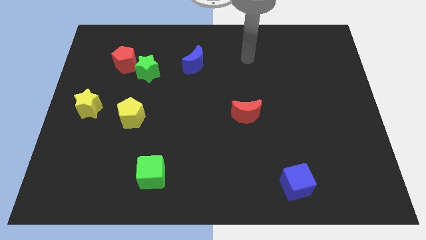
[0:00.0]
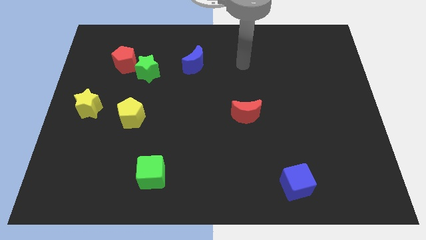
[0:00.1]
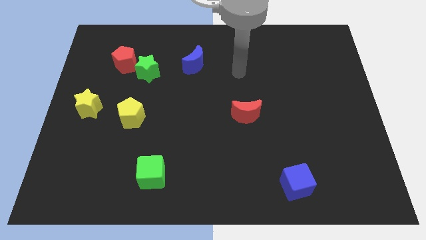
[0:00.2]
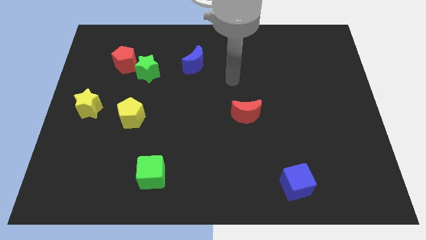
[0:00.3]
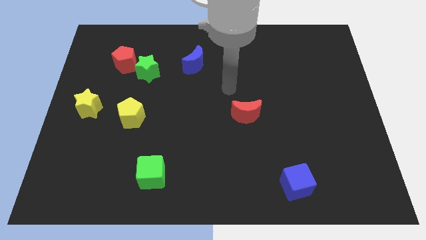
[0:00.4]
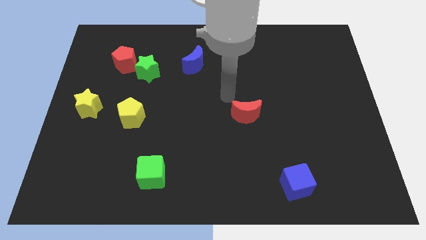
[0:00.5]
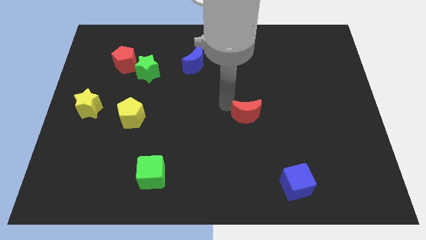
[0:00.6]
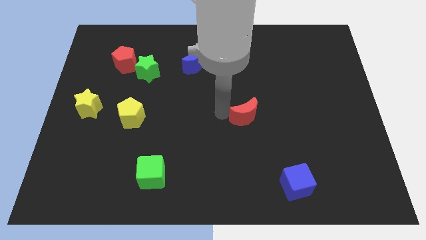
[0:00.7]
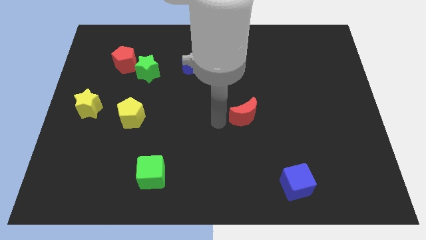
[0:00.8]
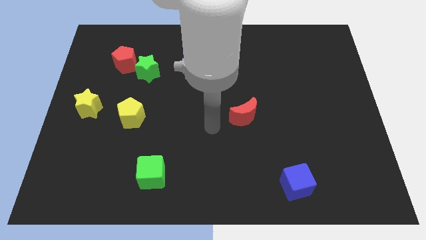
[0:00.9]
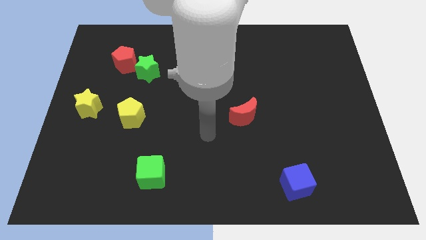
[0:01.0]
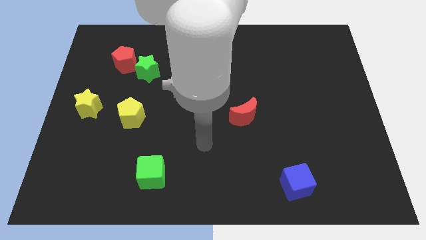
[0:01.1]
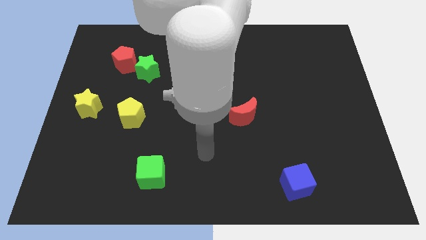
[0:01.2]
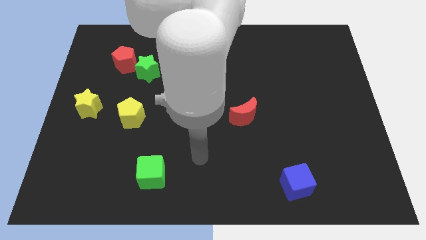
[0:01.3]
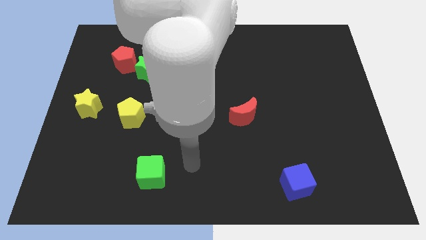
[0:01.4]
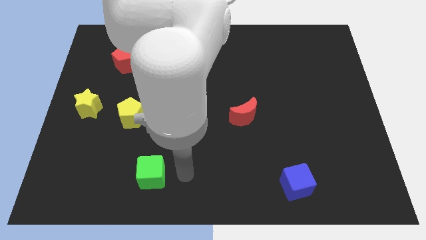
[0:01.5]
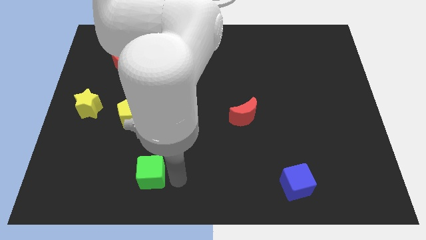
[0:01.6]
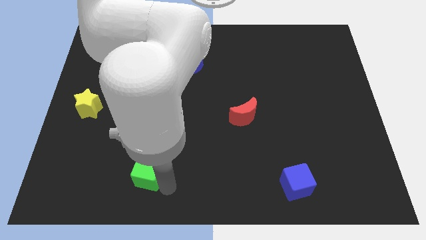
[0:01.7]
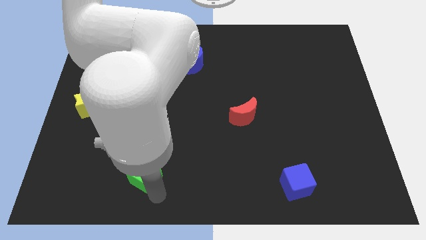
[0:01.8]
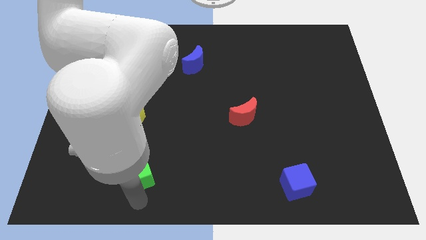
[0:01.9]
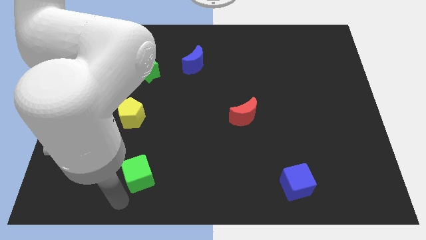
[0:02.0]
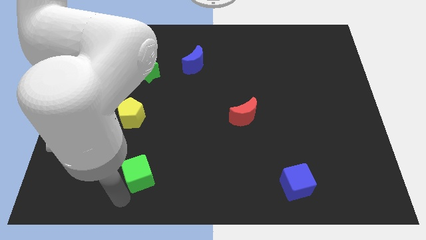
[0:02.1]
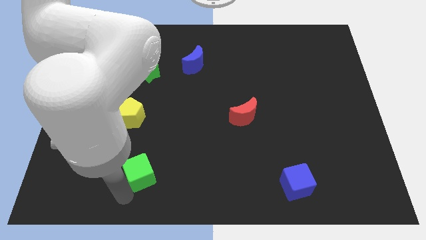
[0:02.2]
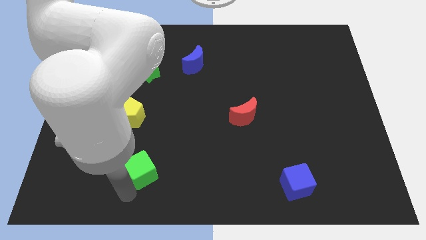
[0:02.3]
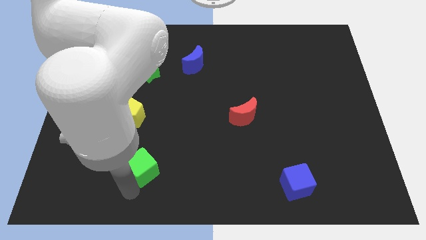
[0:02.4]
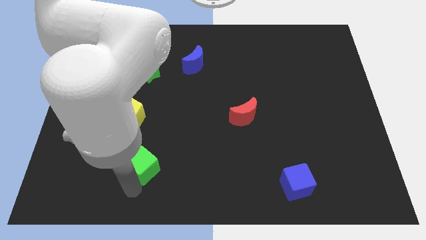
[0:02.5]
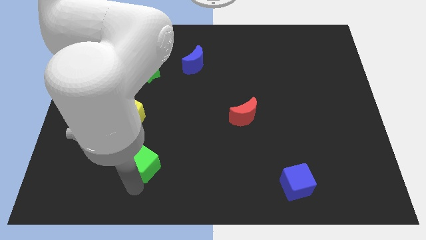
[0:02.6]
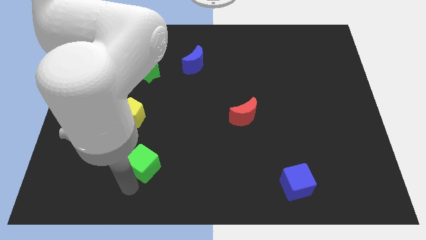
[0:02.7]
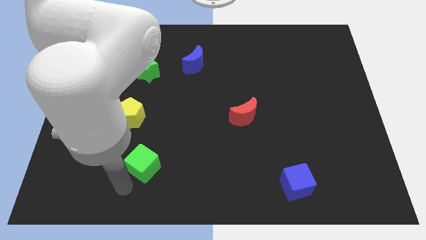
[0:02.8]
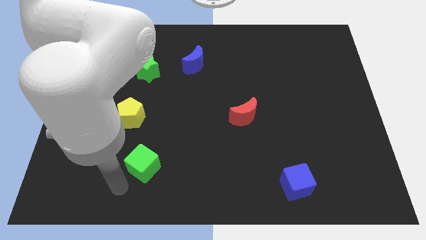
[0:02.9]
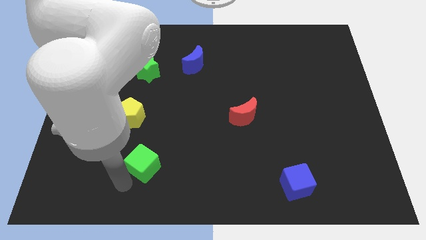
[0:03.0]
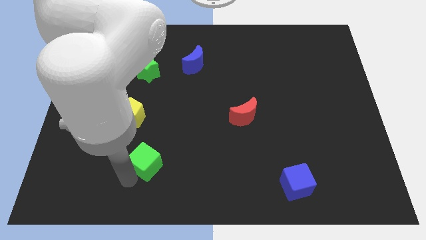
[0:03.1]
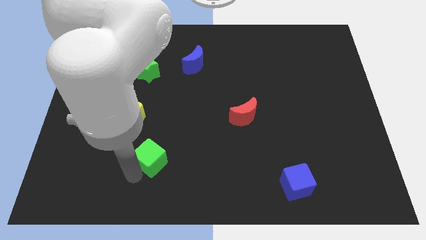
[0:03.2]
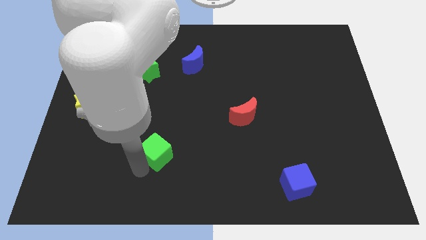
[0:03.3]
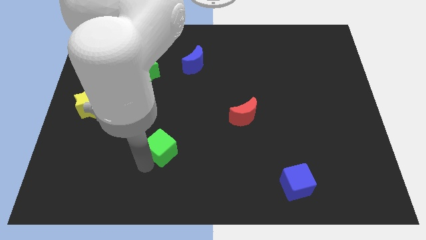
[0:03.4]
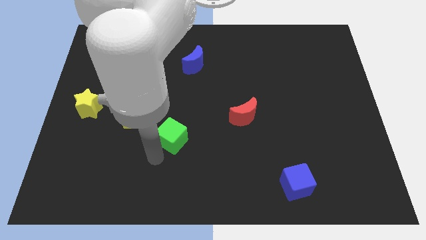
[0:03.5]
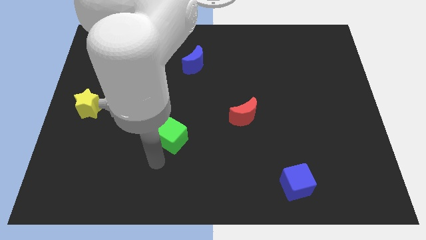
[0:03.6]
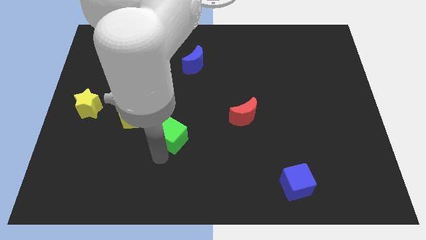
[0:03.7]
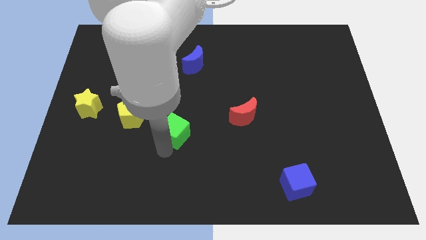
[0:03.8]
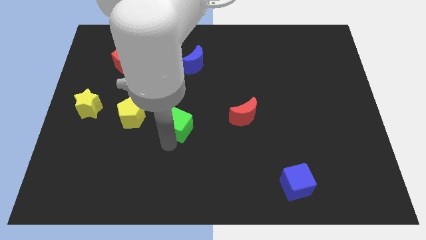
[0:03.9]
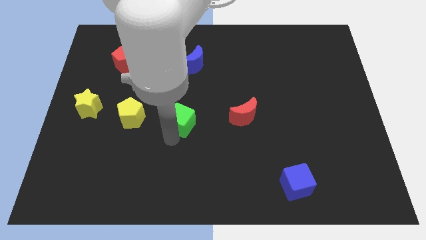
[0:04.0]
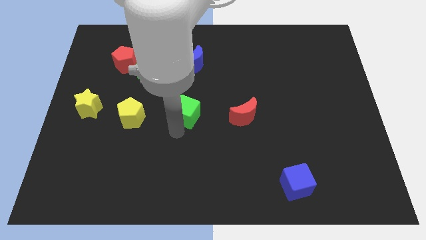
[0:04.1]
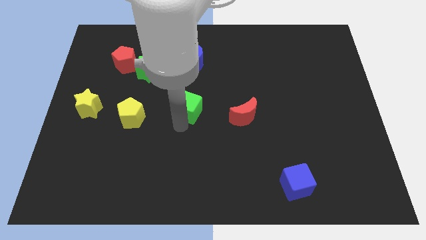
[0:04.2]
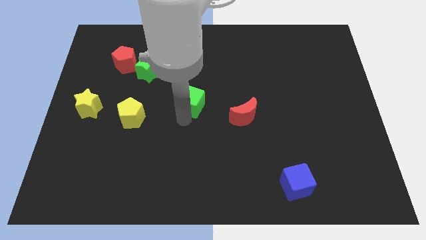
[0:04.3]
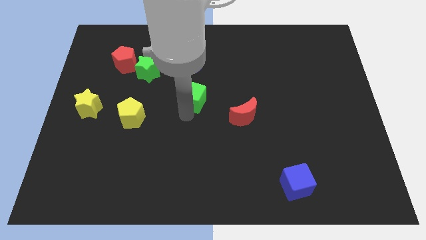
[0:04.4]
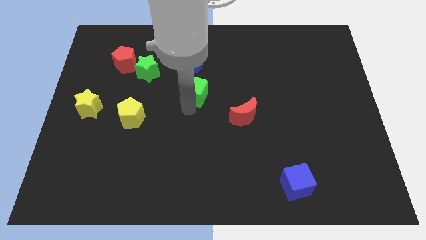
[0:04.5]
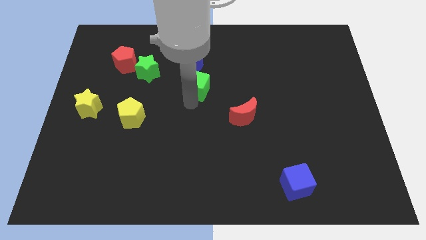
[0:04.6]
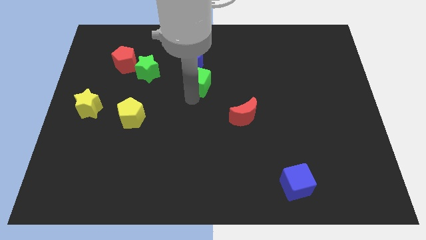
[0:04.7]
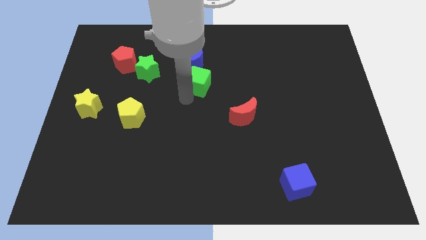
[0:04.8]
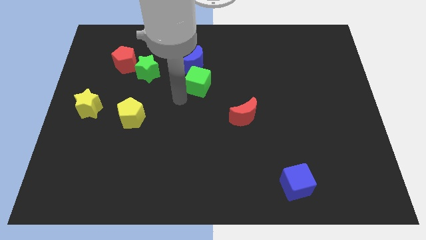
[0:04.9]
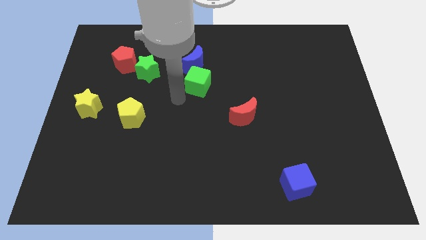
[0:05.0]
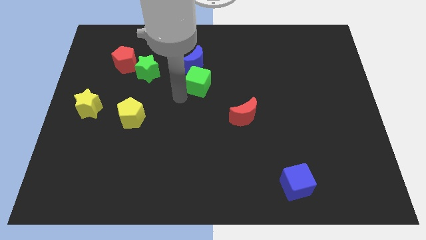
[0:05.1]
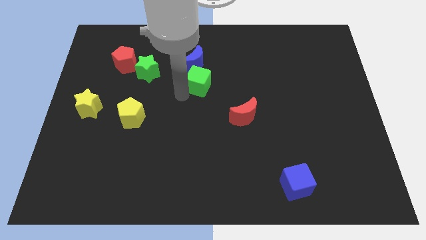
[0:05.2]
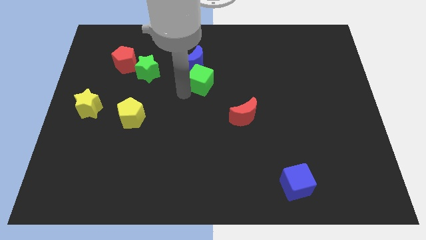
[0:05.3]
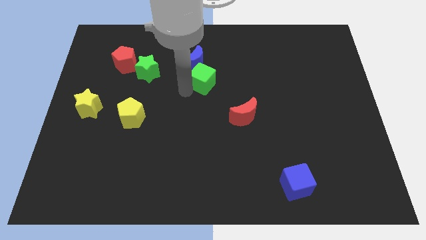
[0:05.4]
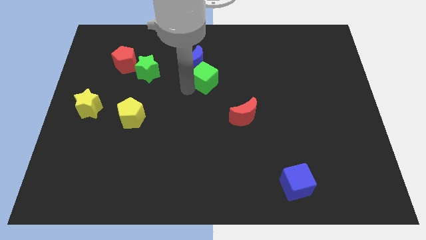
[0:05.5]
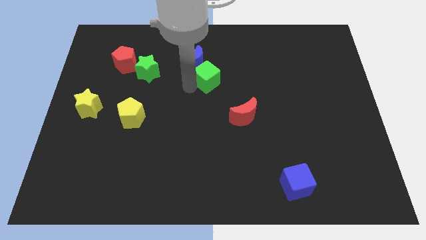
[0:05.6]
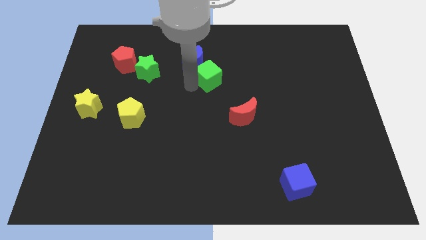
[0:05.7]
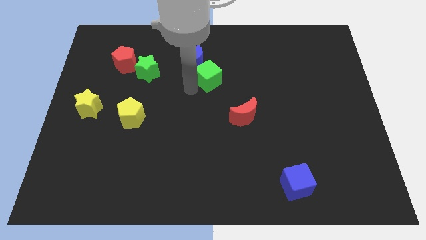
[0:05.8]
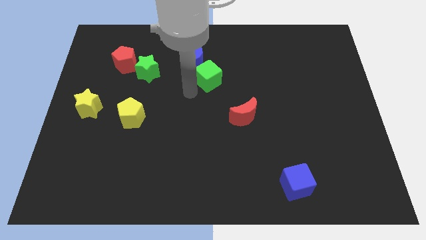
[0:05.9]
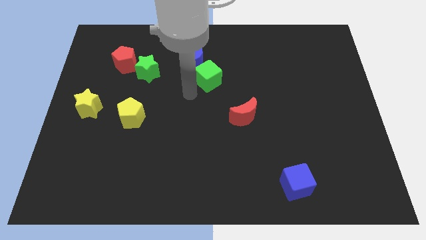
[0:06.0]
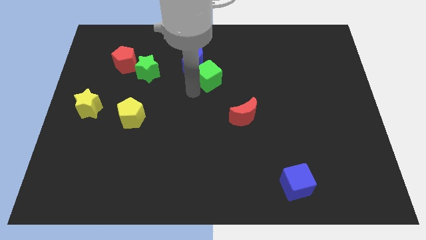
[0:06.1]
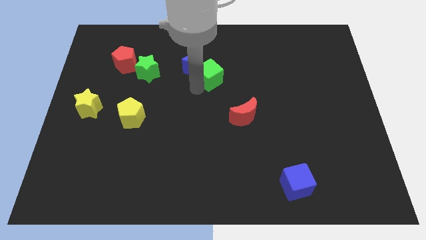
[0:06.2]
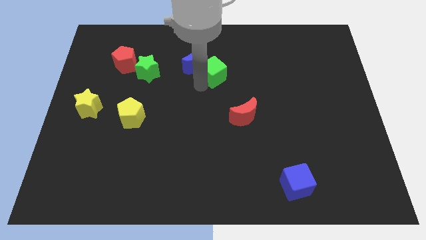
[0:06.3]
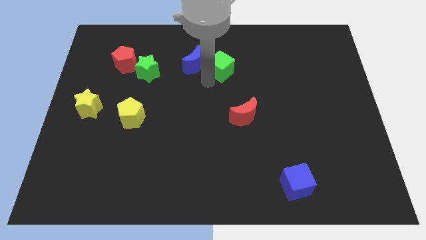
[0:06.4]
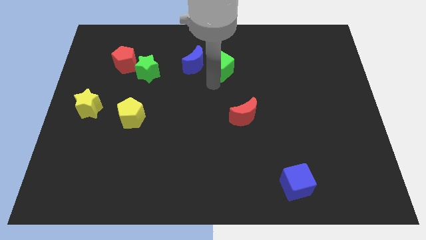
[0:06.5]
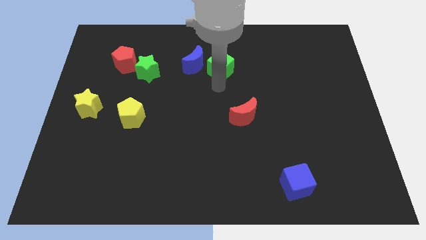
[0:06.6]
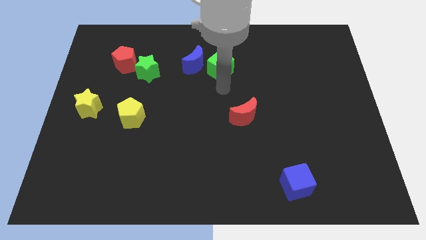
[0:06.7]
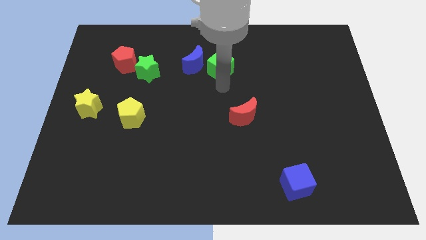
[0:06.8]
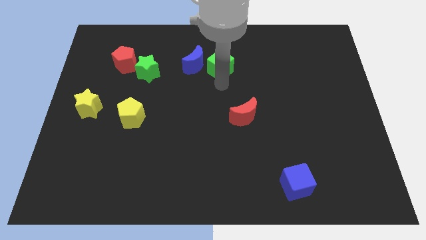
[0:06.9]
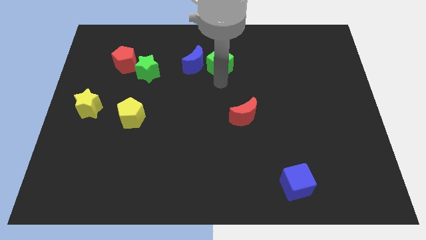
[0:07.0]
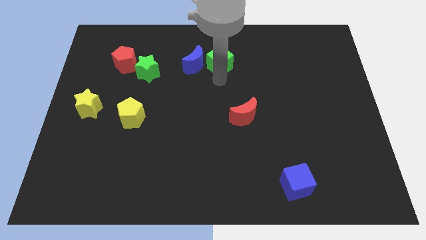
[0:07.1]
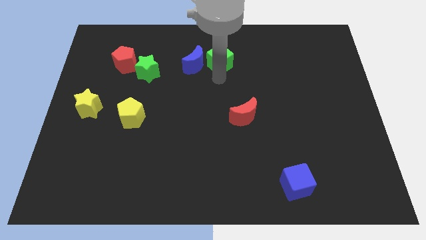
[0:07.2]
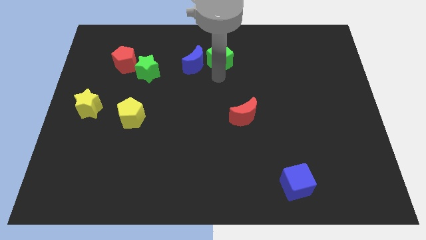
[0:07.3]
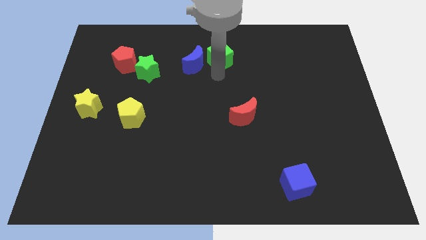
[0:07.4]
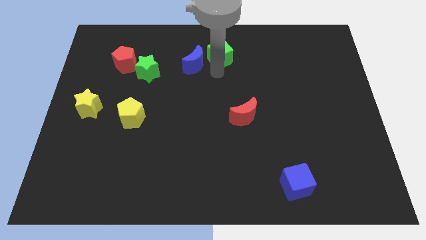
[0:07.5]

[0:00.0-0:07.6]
move the green cube to the top side

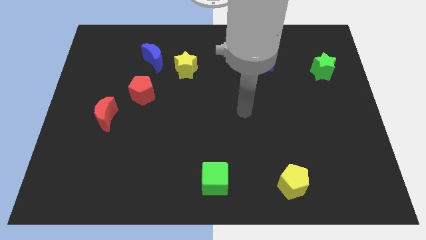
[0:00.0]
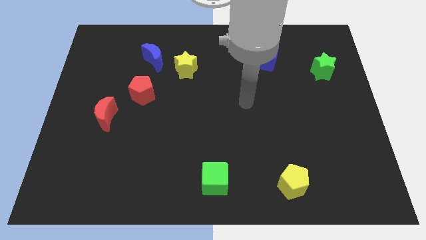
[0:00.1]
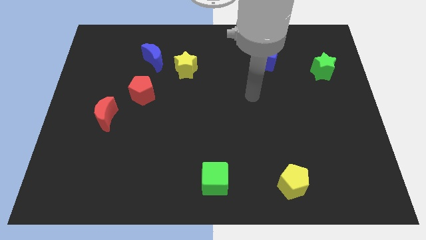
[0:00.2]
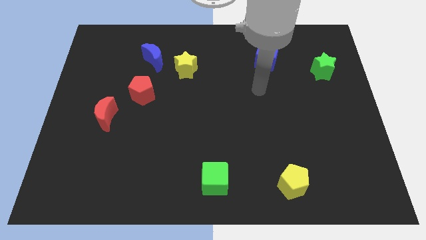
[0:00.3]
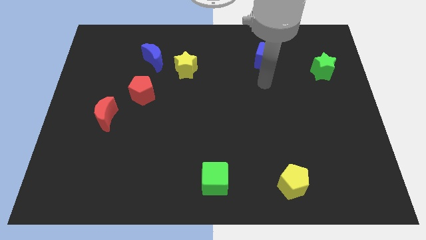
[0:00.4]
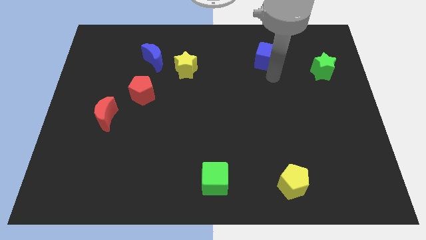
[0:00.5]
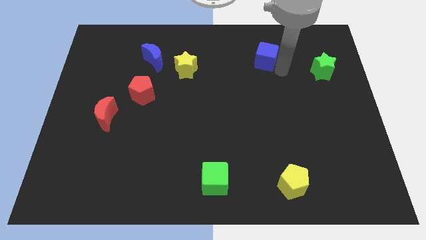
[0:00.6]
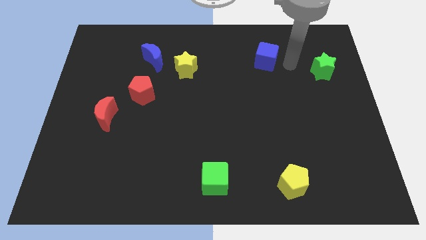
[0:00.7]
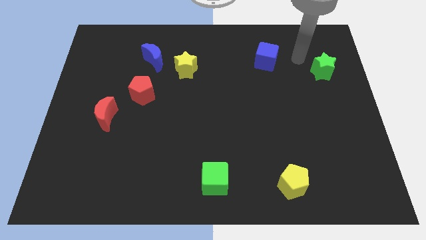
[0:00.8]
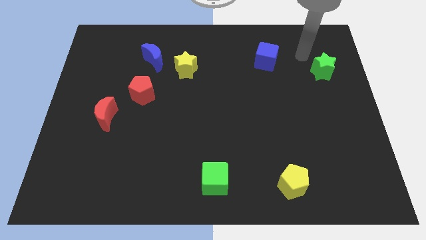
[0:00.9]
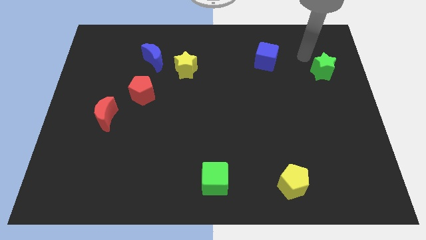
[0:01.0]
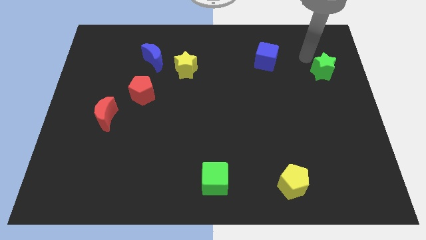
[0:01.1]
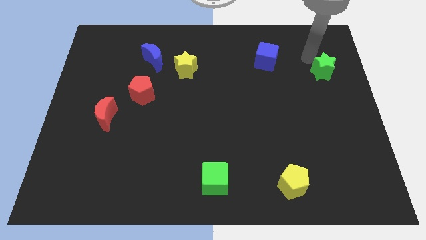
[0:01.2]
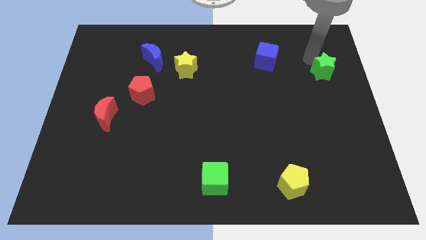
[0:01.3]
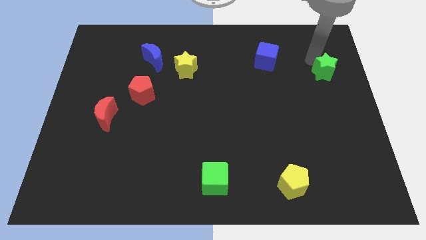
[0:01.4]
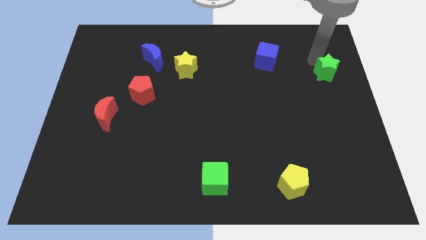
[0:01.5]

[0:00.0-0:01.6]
put the green star to the right side of the board
